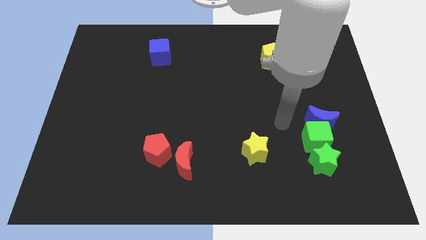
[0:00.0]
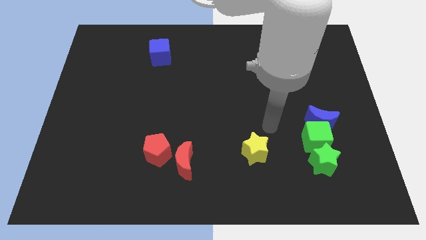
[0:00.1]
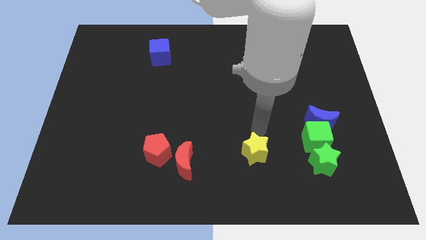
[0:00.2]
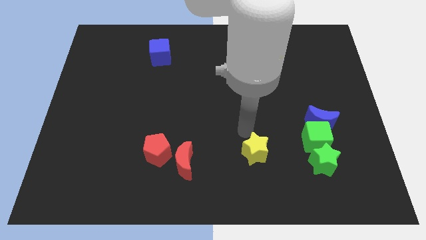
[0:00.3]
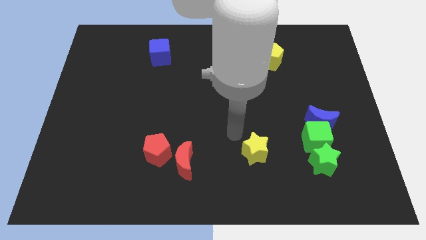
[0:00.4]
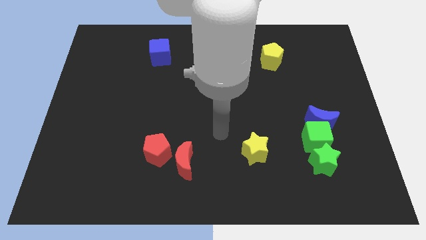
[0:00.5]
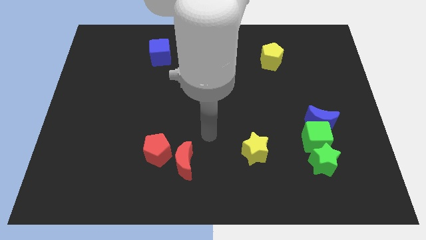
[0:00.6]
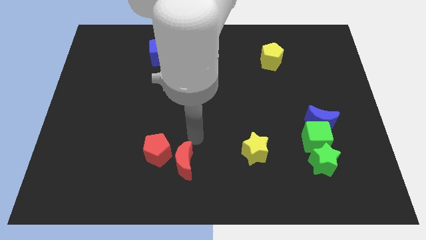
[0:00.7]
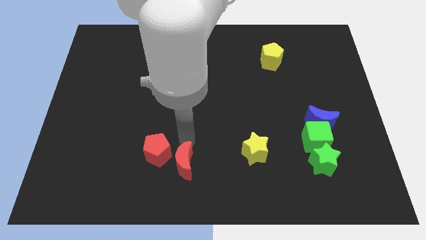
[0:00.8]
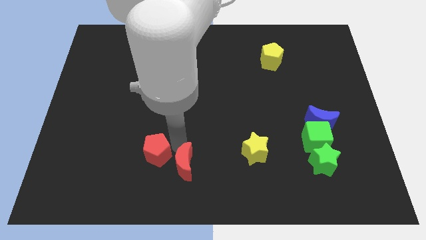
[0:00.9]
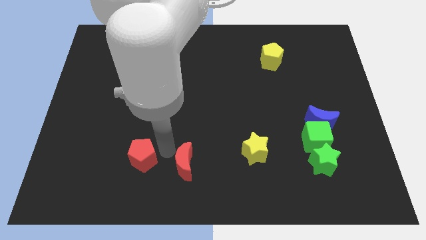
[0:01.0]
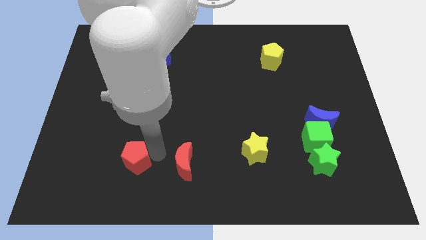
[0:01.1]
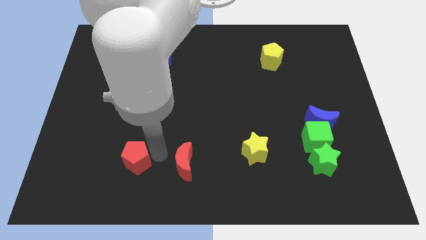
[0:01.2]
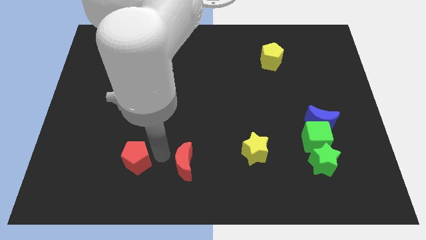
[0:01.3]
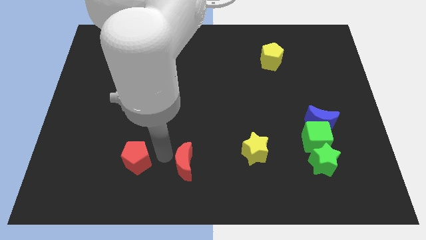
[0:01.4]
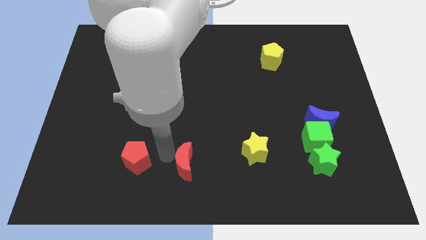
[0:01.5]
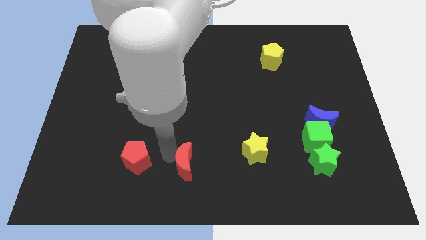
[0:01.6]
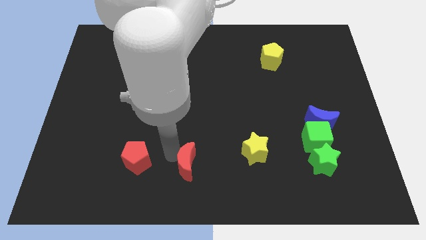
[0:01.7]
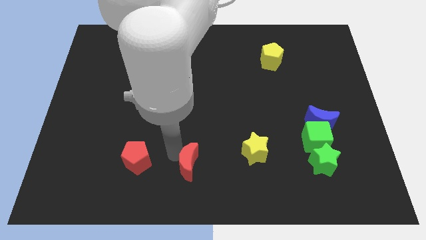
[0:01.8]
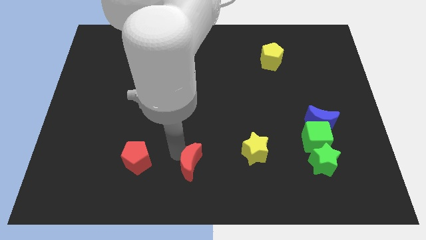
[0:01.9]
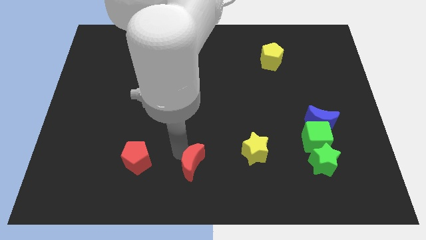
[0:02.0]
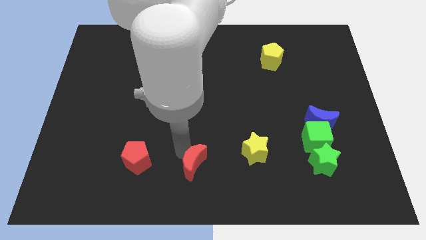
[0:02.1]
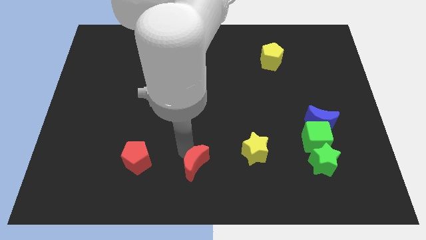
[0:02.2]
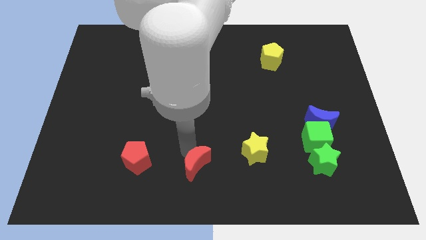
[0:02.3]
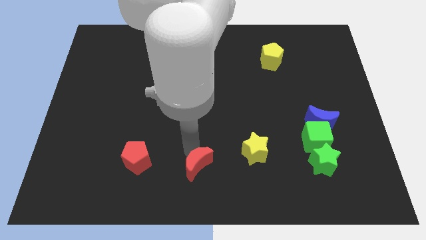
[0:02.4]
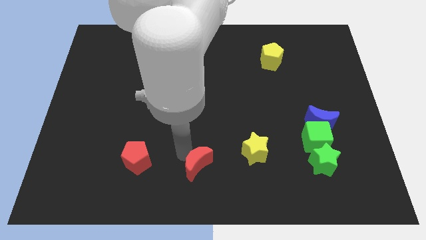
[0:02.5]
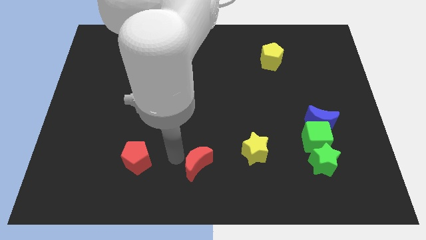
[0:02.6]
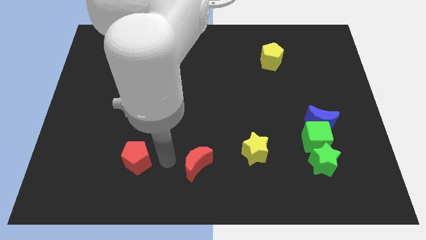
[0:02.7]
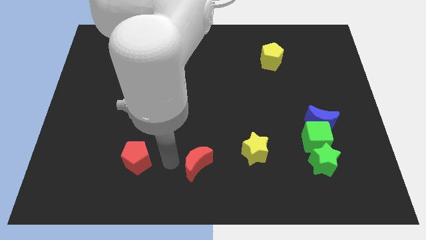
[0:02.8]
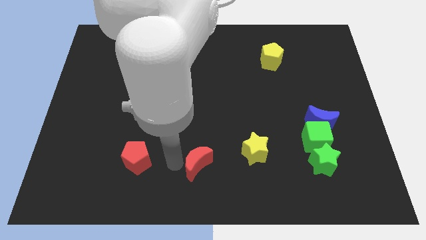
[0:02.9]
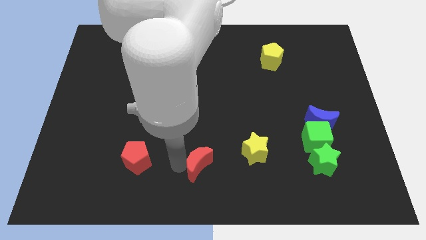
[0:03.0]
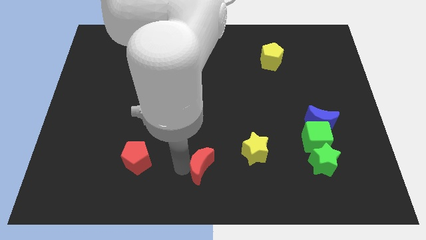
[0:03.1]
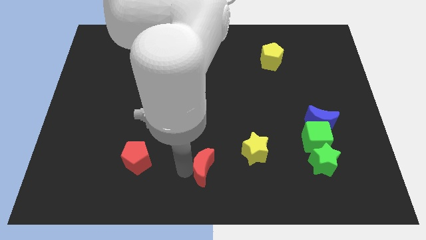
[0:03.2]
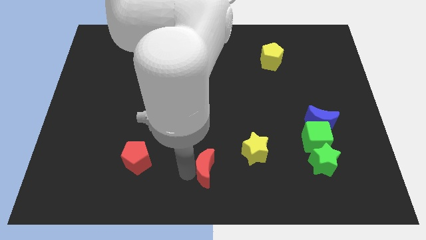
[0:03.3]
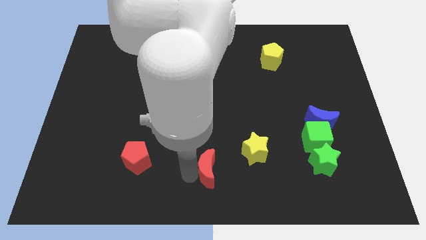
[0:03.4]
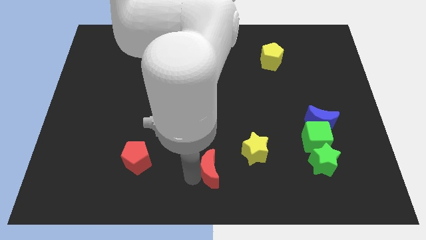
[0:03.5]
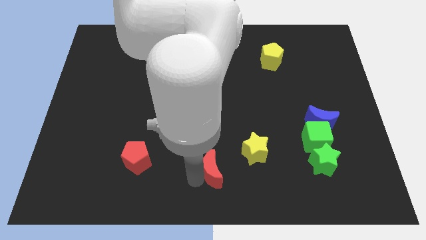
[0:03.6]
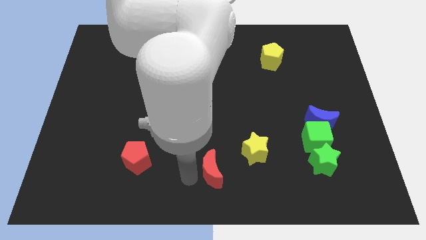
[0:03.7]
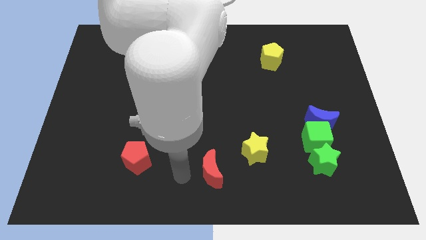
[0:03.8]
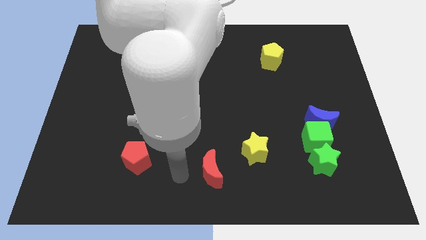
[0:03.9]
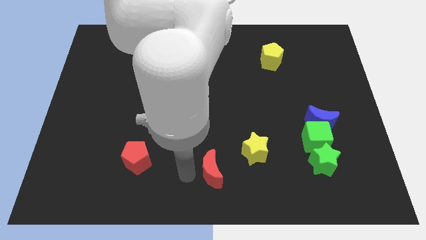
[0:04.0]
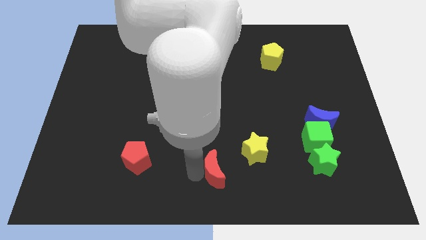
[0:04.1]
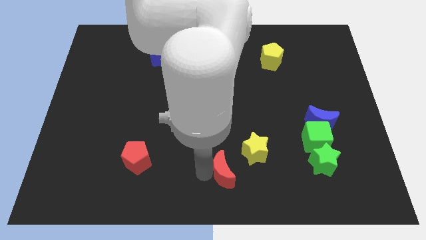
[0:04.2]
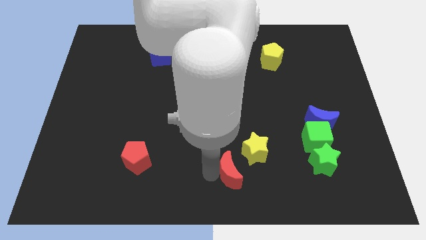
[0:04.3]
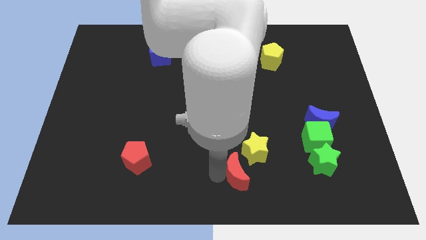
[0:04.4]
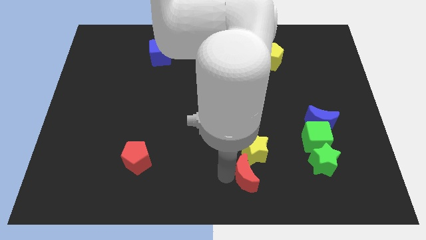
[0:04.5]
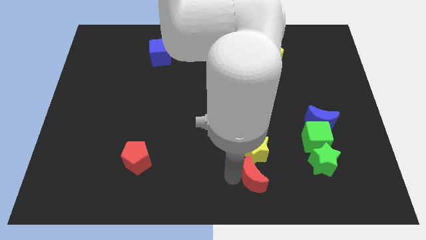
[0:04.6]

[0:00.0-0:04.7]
put the red moon left of the green star

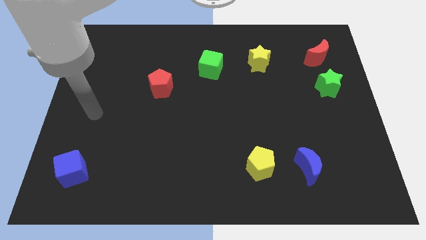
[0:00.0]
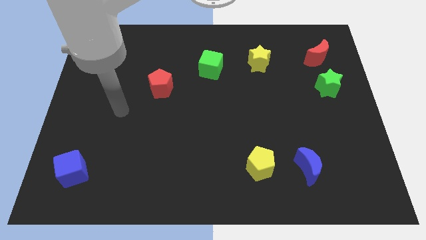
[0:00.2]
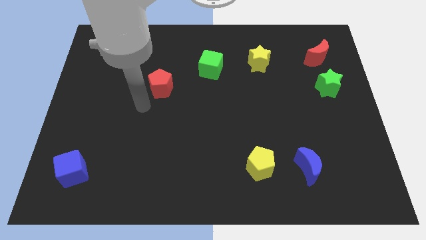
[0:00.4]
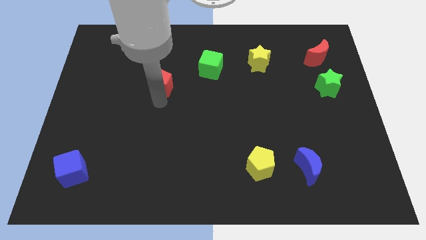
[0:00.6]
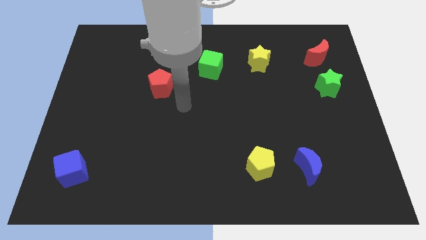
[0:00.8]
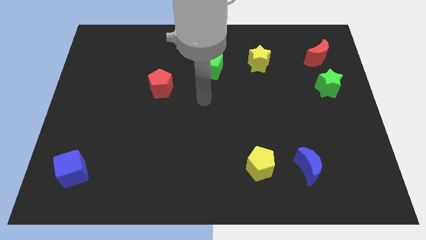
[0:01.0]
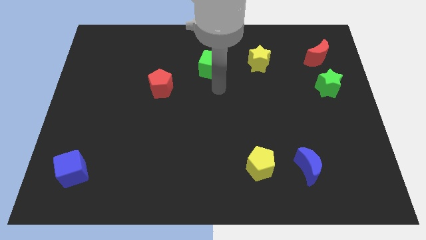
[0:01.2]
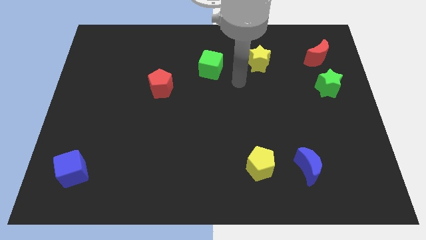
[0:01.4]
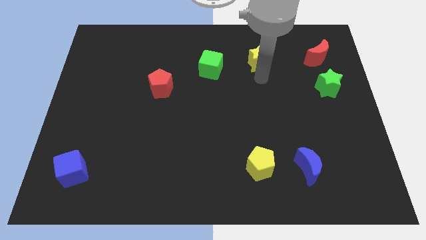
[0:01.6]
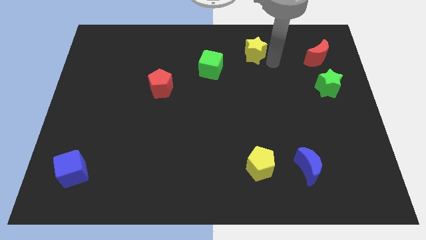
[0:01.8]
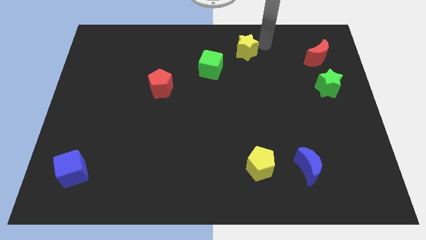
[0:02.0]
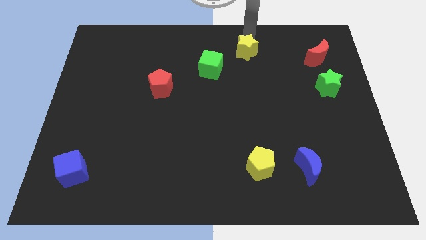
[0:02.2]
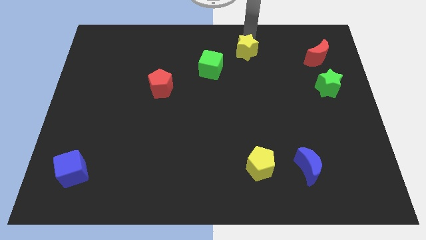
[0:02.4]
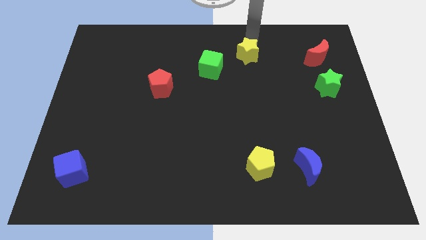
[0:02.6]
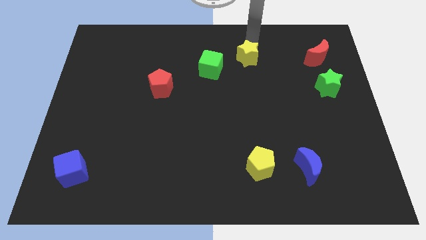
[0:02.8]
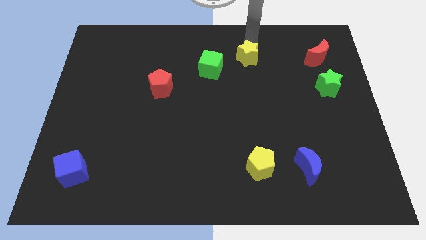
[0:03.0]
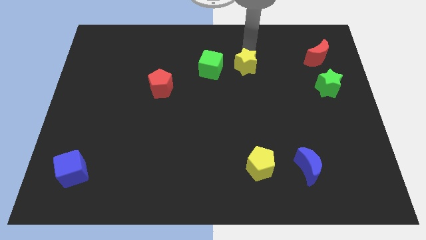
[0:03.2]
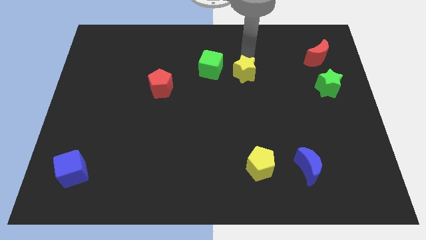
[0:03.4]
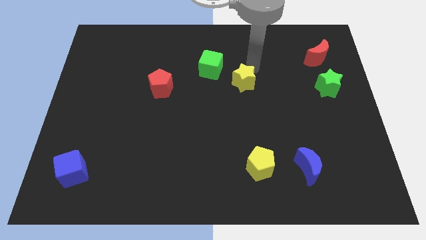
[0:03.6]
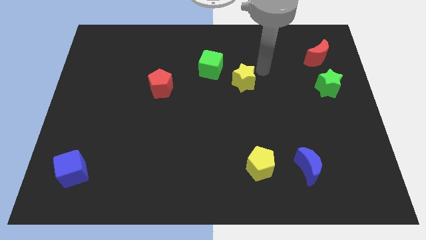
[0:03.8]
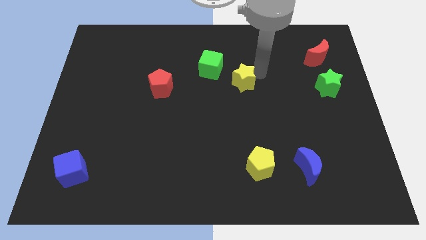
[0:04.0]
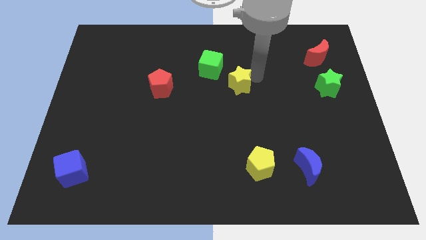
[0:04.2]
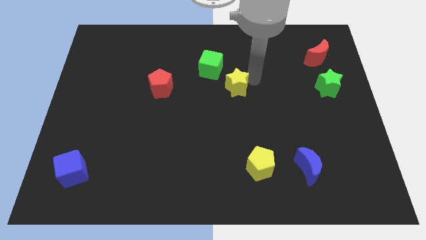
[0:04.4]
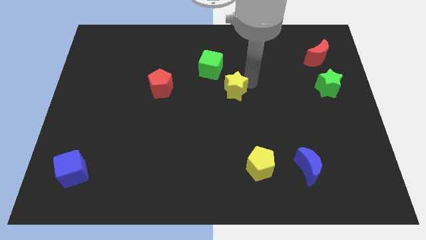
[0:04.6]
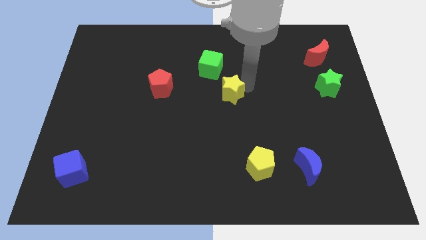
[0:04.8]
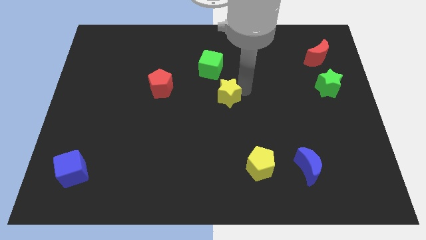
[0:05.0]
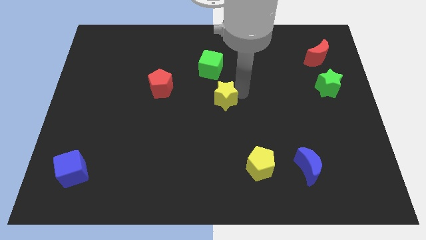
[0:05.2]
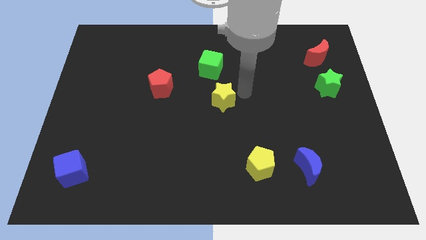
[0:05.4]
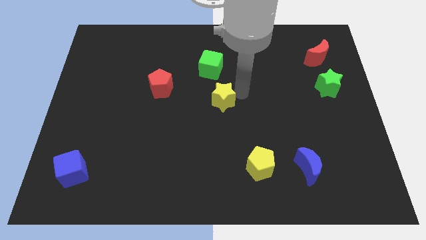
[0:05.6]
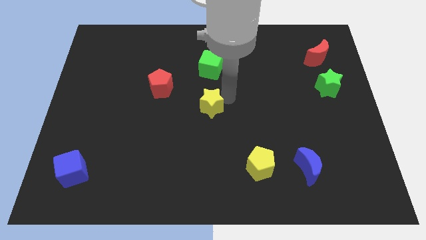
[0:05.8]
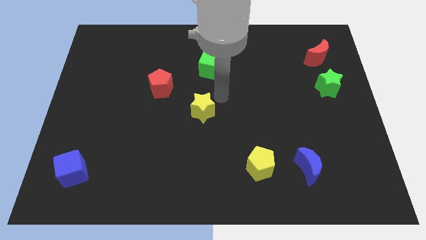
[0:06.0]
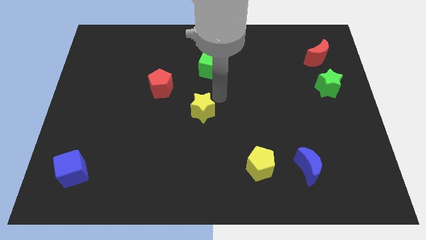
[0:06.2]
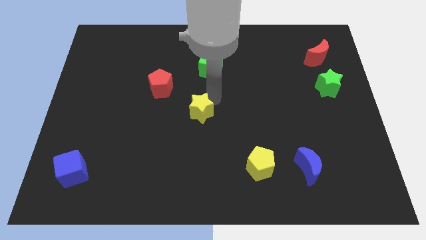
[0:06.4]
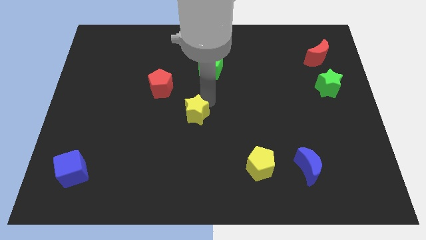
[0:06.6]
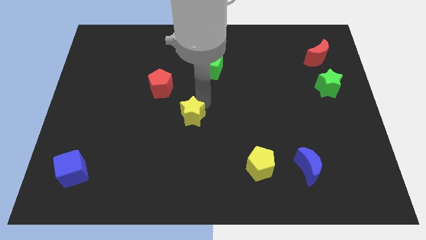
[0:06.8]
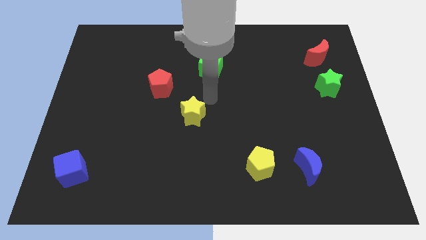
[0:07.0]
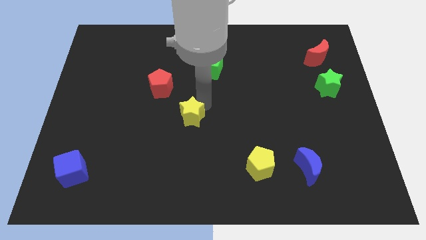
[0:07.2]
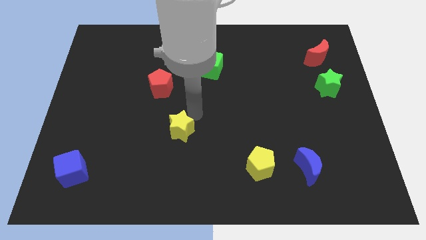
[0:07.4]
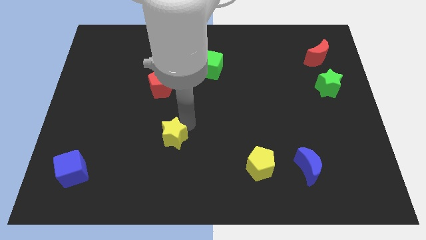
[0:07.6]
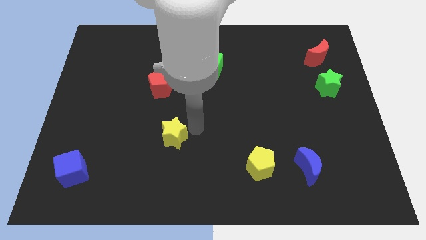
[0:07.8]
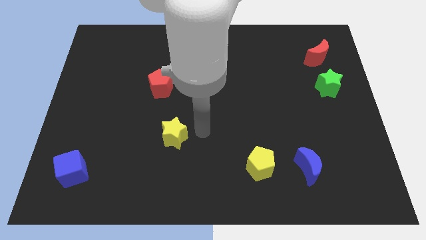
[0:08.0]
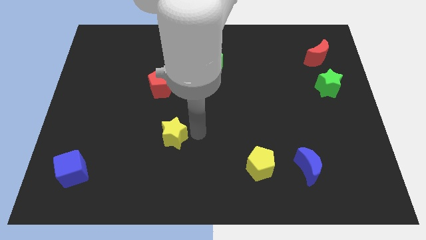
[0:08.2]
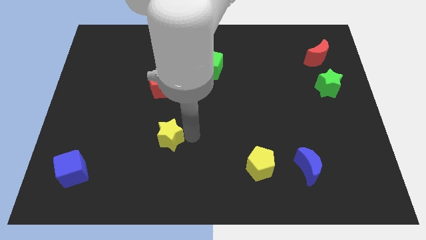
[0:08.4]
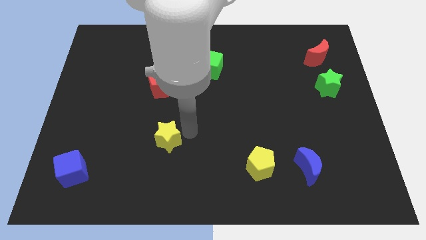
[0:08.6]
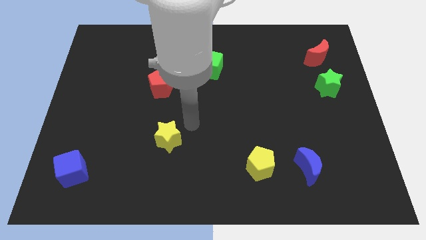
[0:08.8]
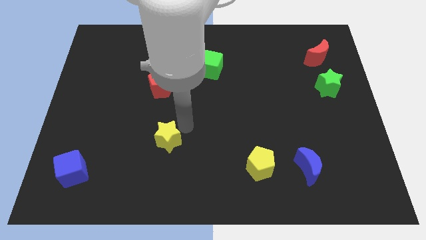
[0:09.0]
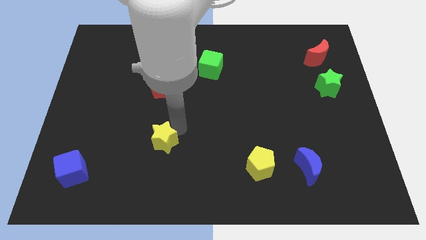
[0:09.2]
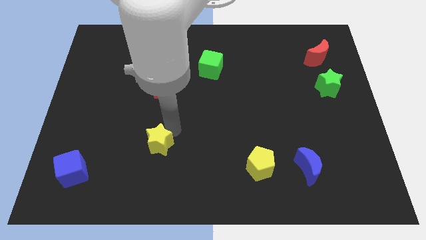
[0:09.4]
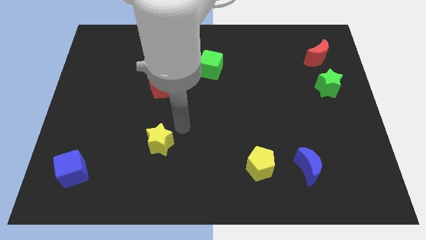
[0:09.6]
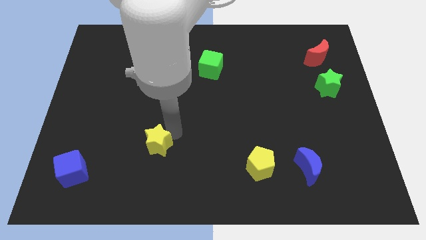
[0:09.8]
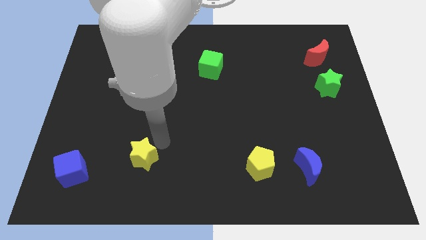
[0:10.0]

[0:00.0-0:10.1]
push the yellow star to the right of the blue cube
